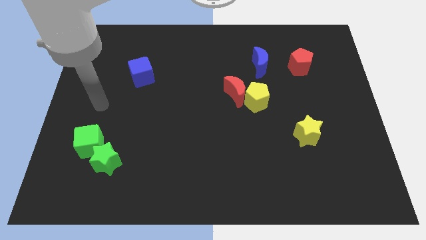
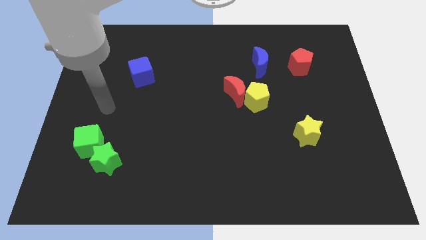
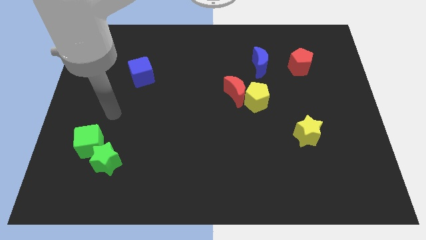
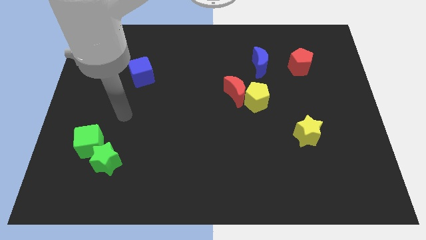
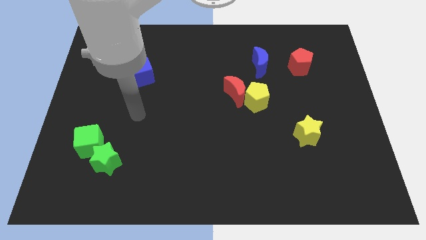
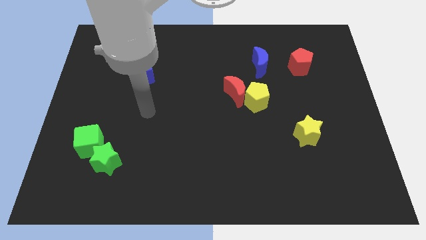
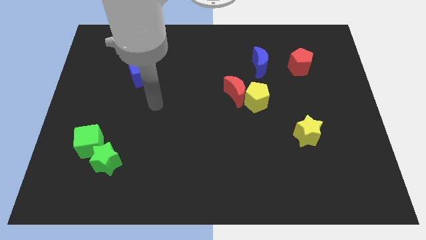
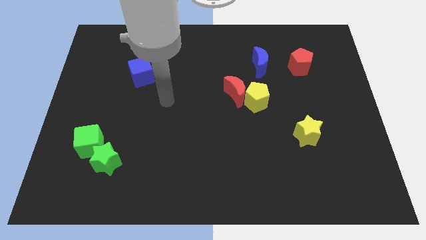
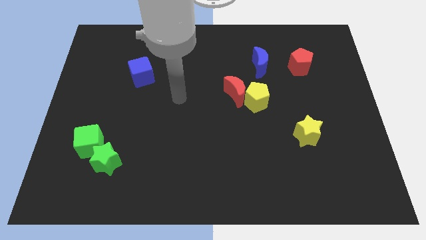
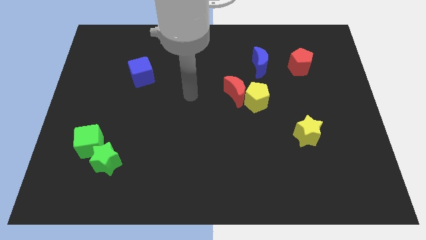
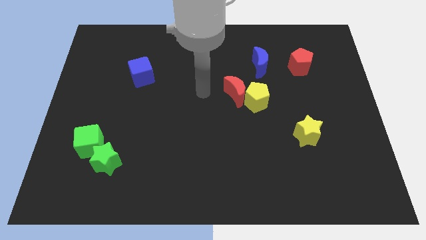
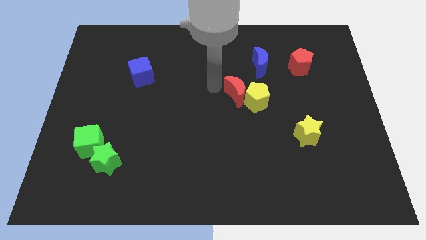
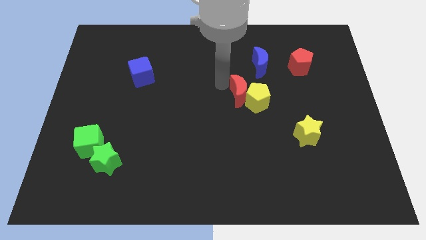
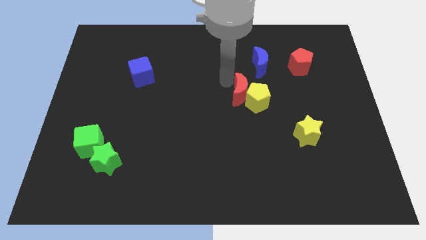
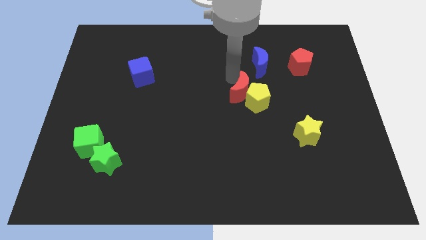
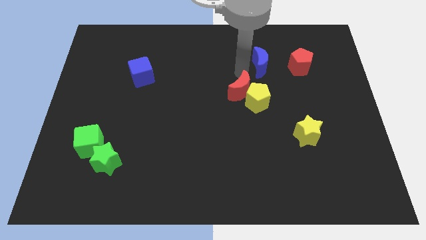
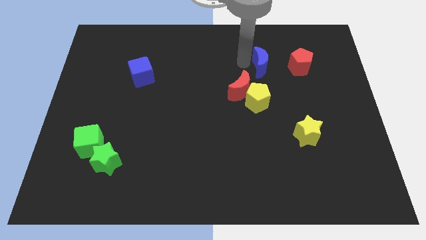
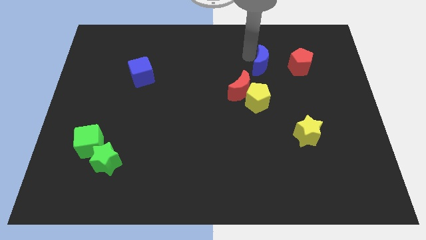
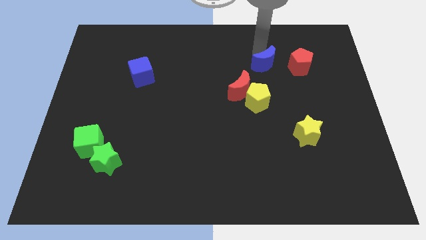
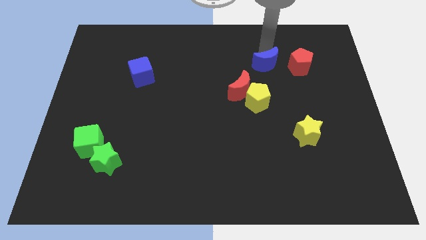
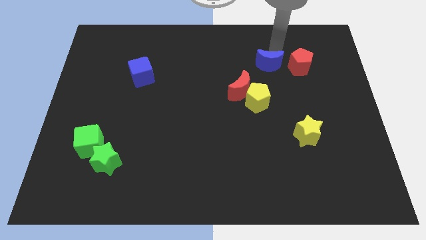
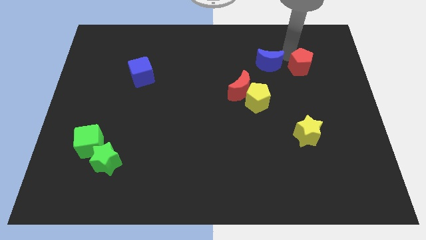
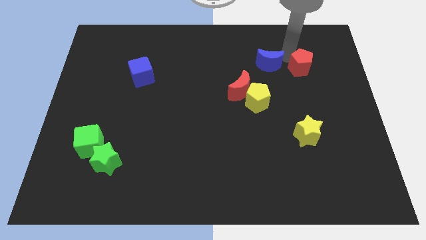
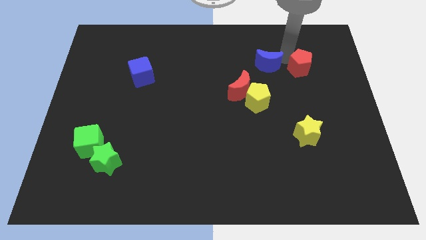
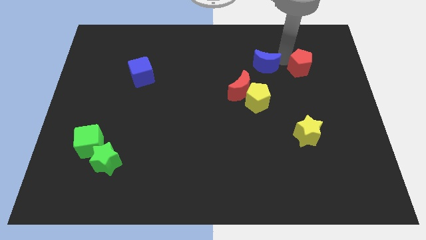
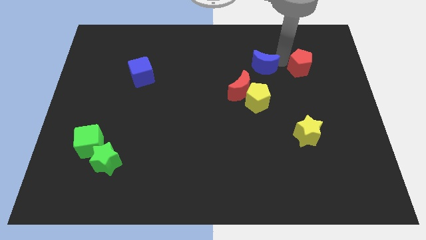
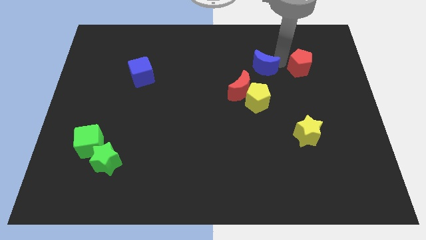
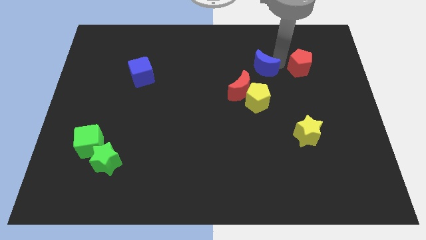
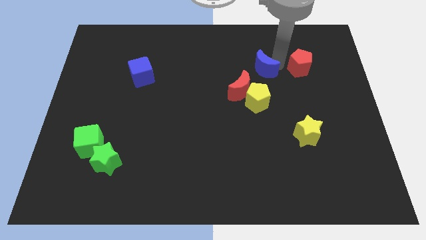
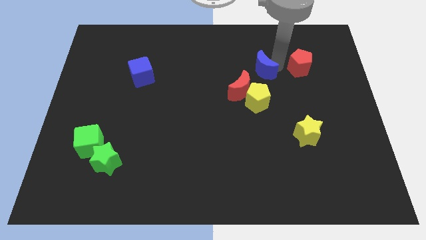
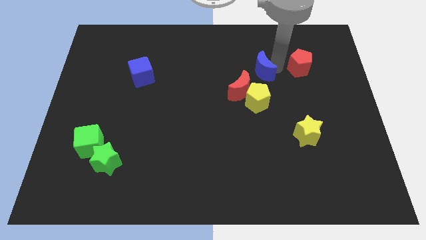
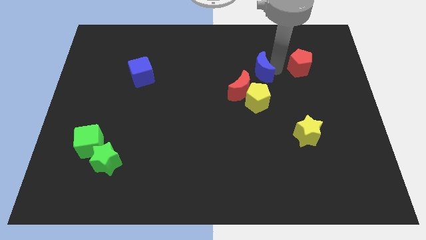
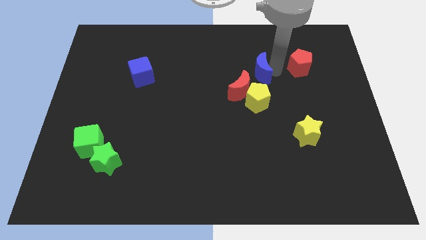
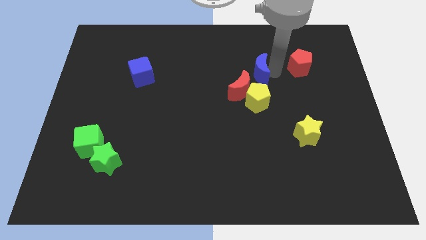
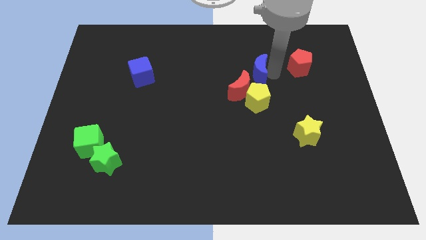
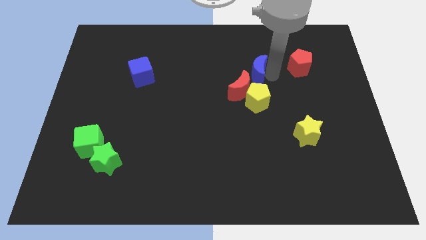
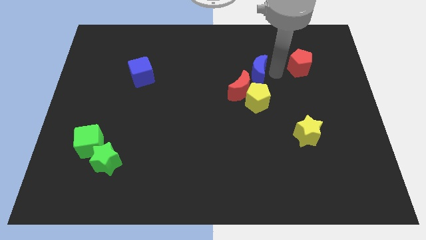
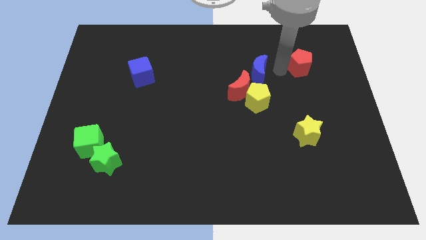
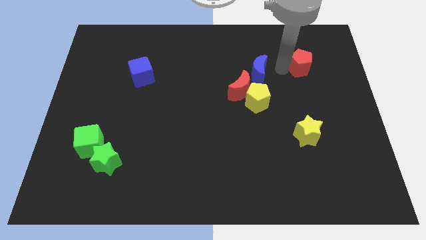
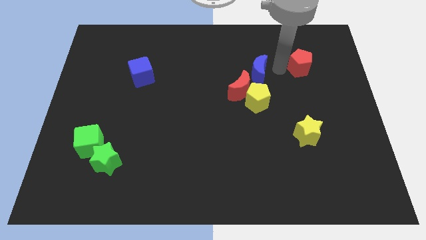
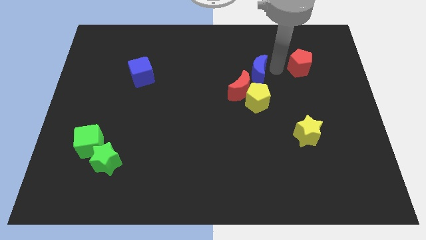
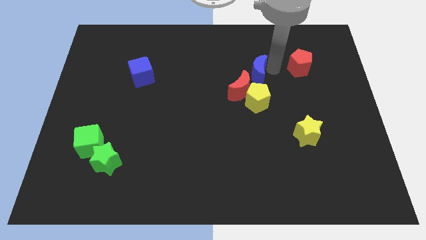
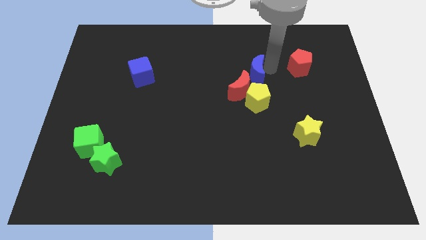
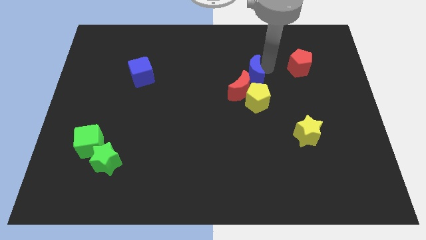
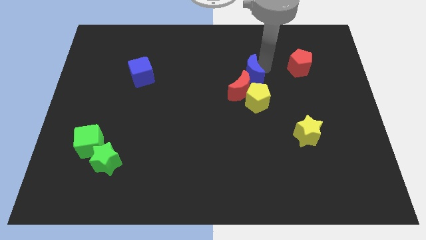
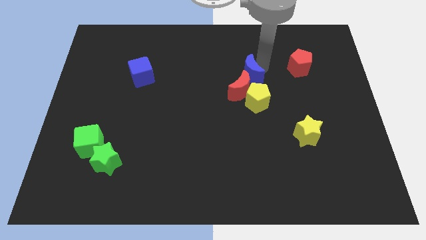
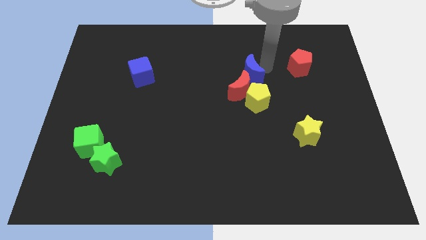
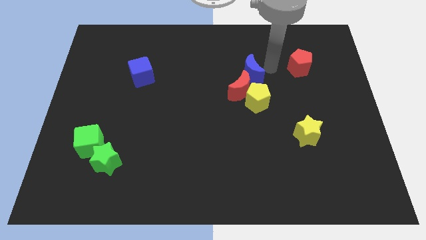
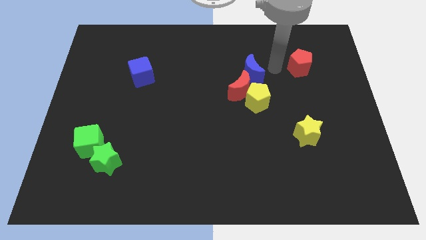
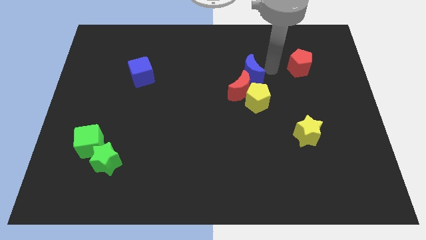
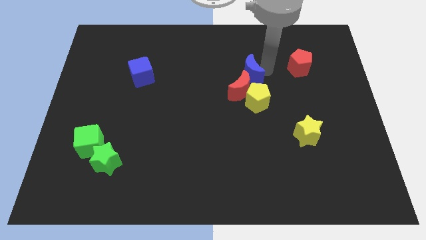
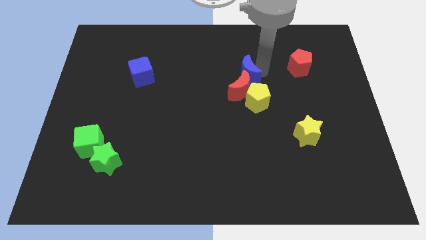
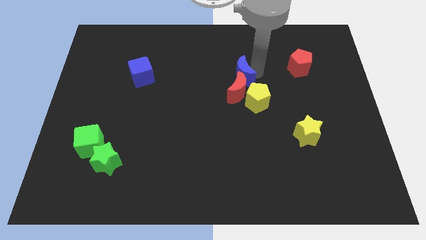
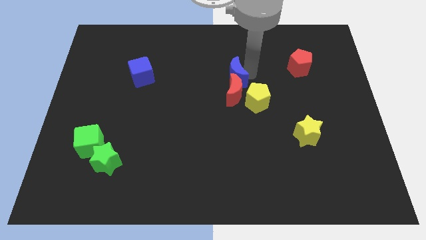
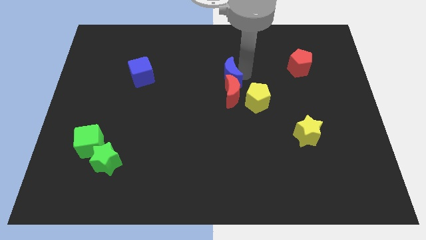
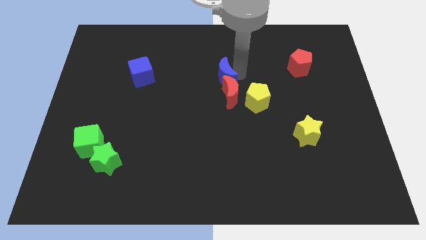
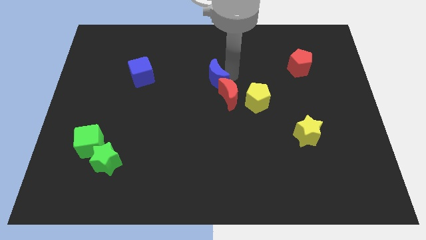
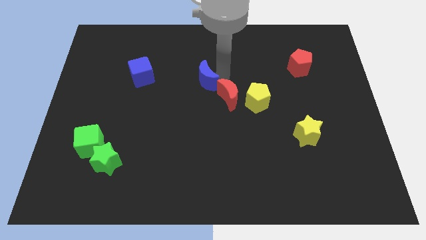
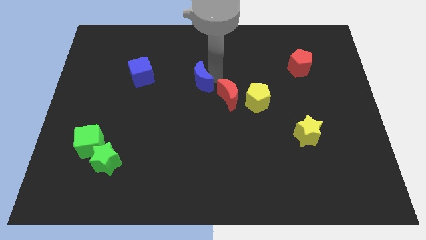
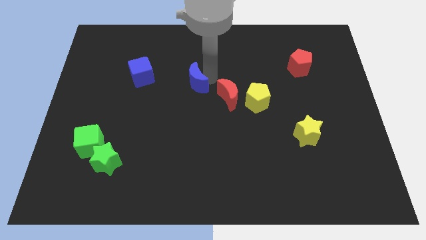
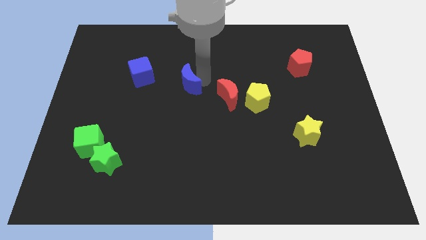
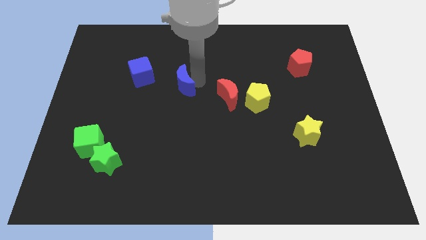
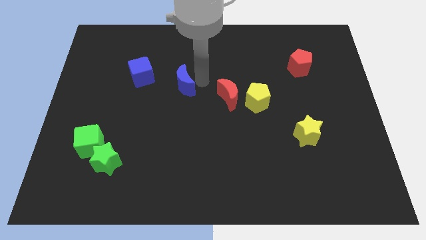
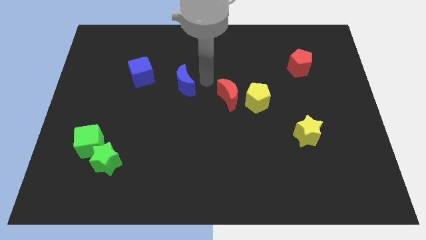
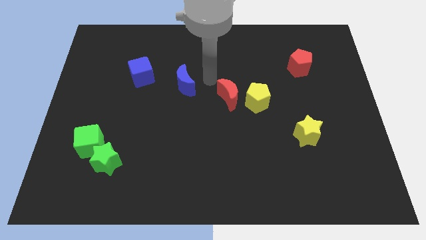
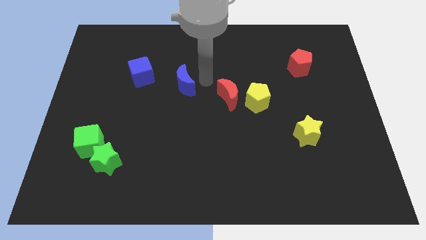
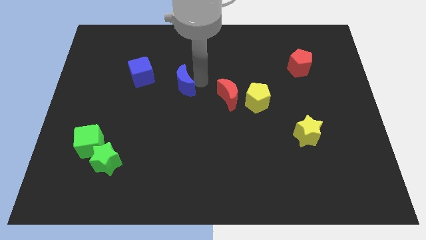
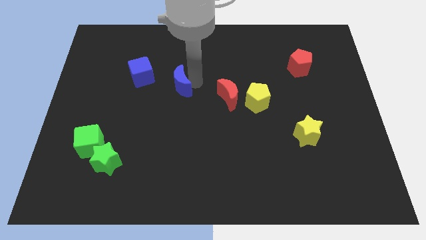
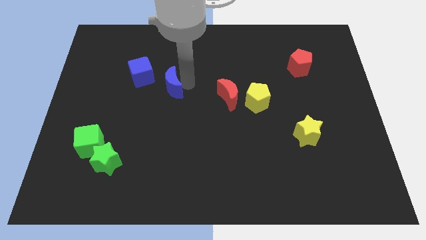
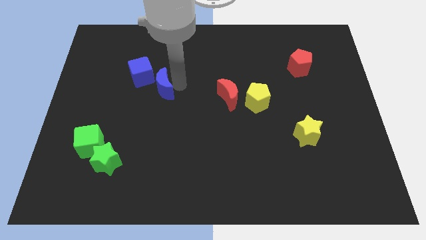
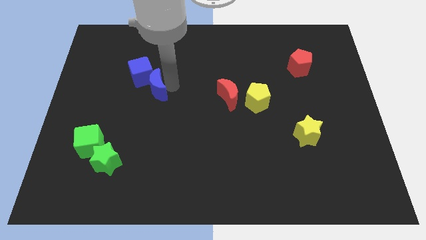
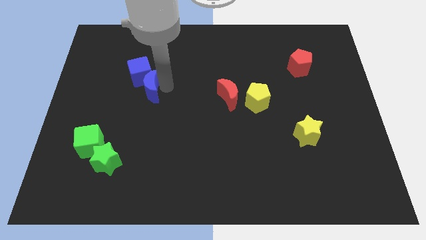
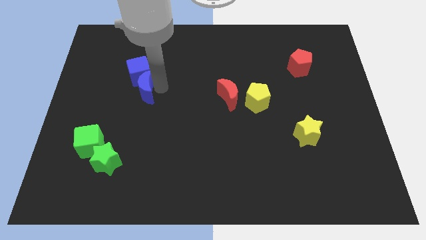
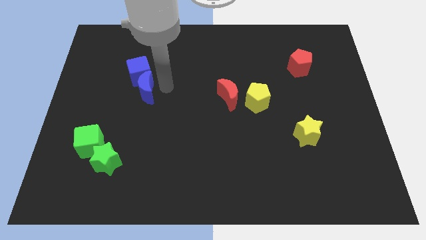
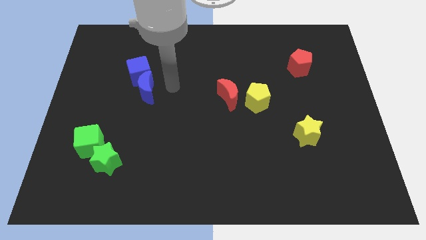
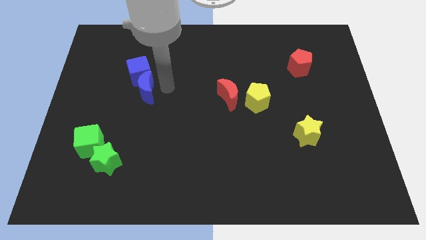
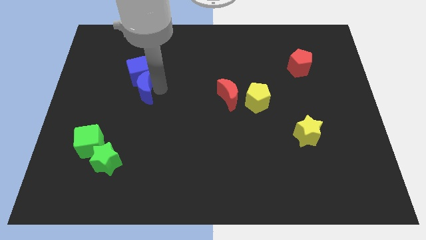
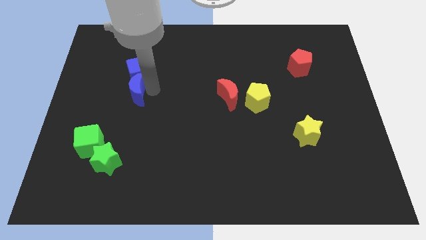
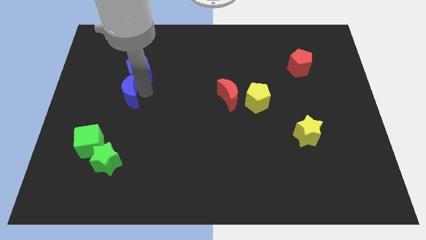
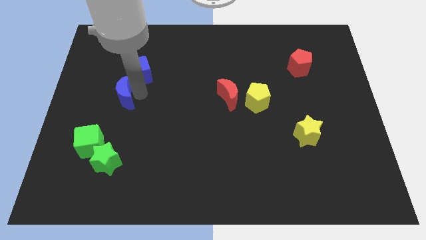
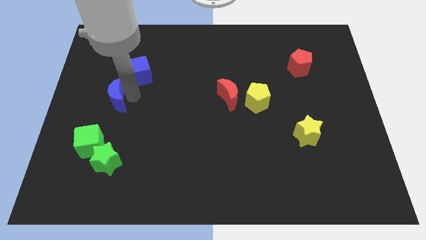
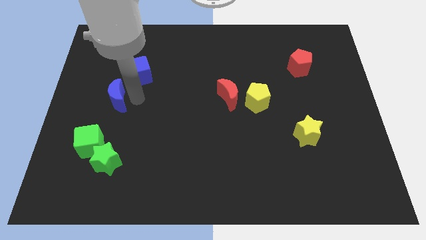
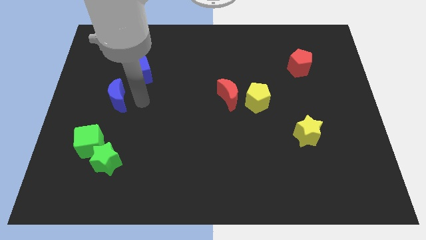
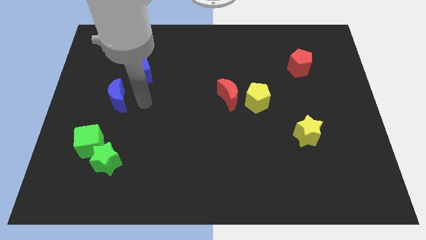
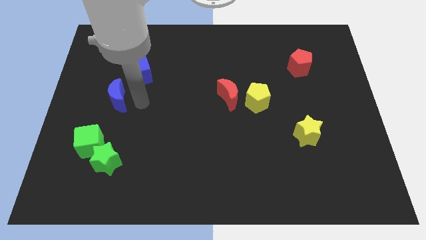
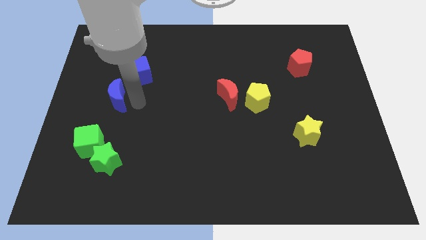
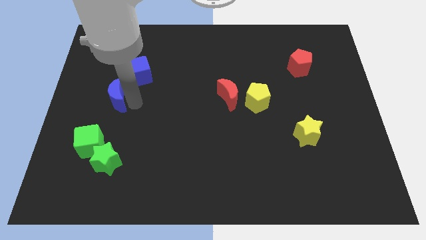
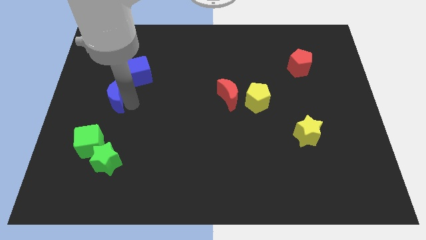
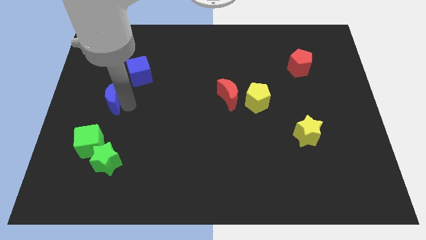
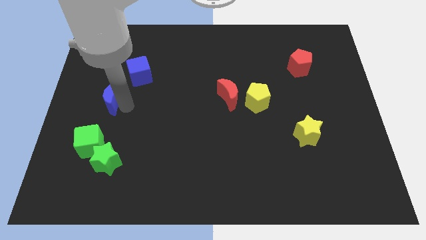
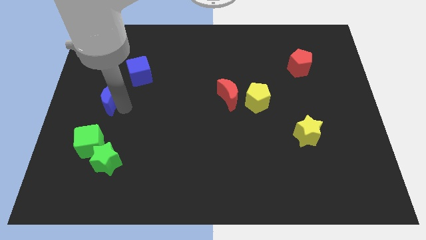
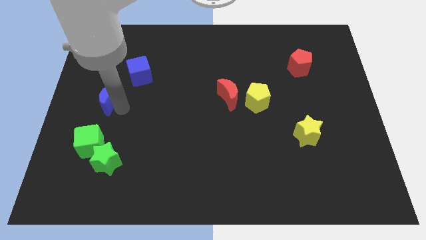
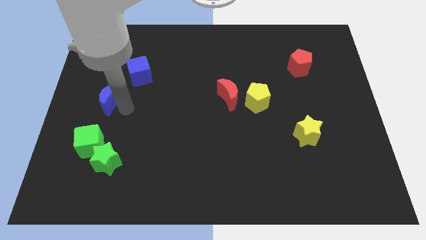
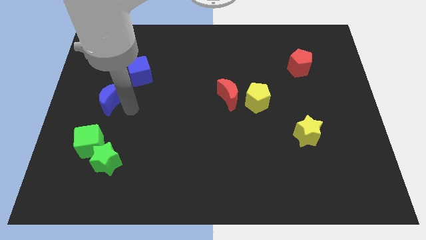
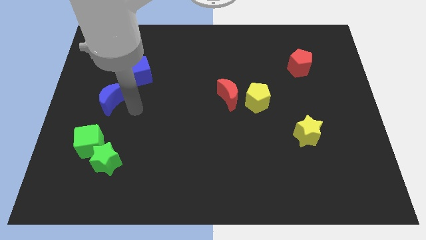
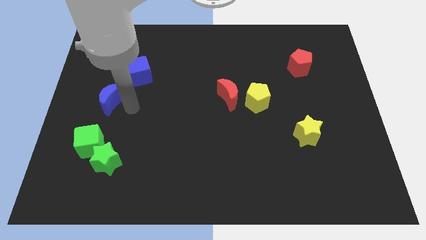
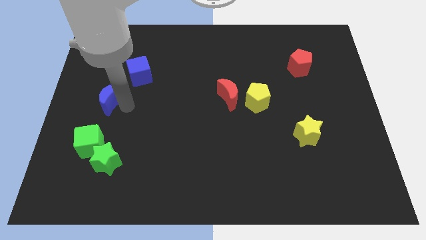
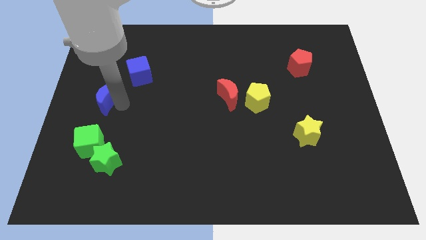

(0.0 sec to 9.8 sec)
slide the blue moon to the left side of the board
